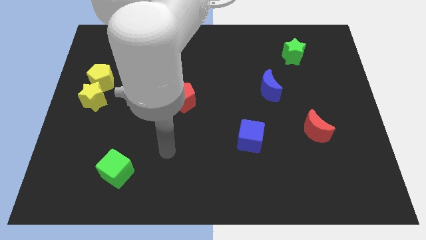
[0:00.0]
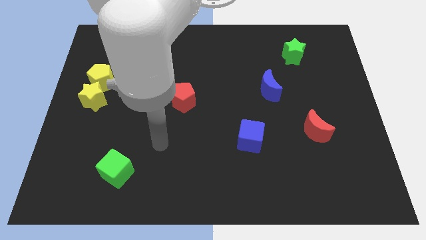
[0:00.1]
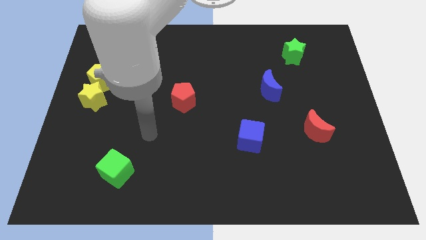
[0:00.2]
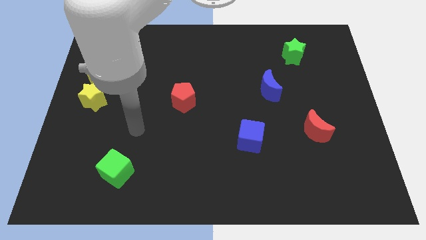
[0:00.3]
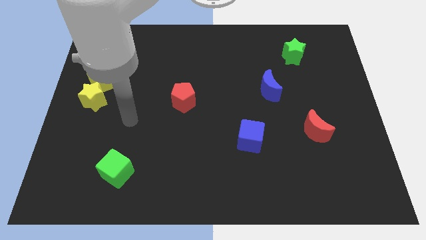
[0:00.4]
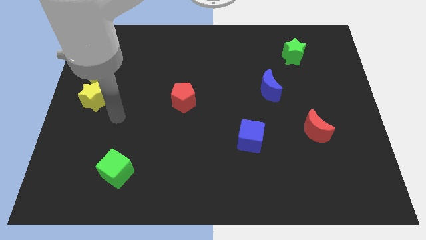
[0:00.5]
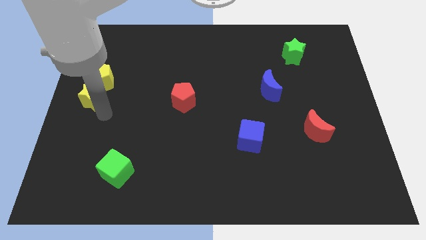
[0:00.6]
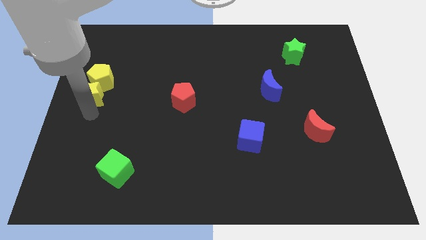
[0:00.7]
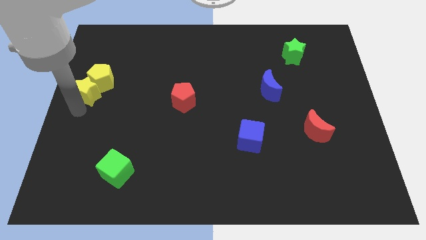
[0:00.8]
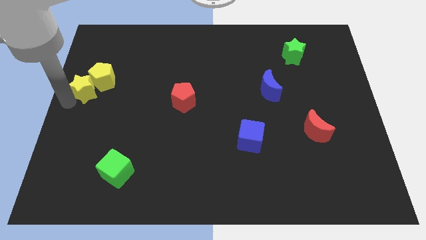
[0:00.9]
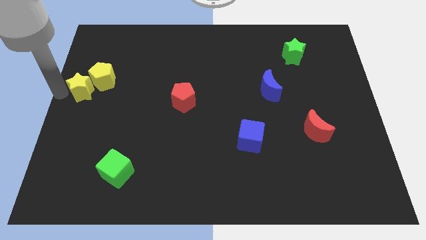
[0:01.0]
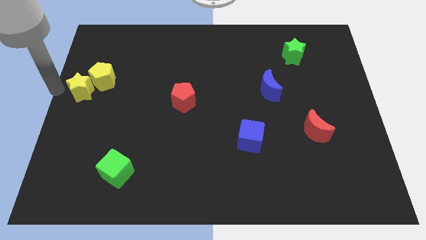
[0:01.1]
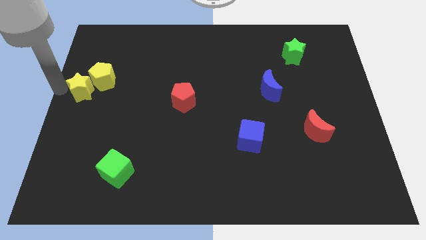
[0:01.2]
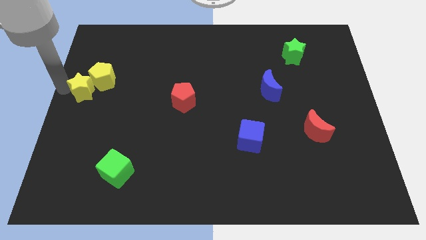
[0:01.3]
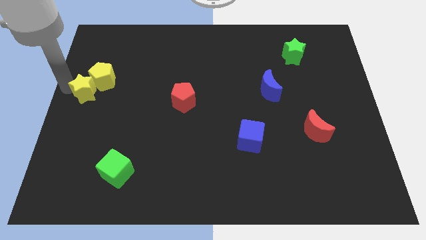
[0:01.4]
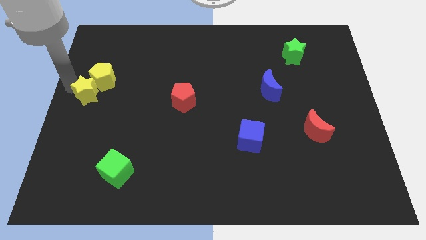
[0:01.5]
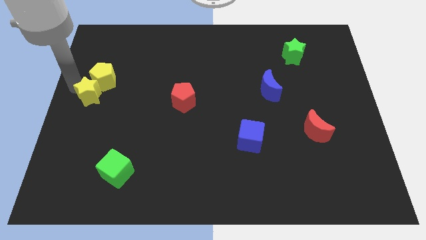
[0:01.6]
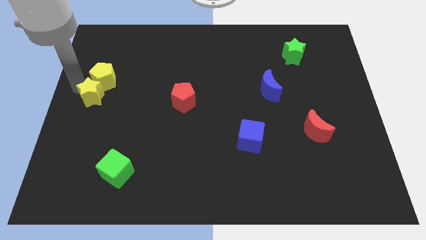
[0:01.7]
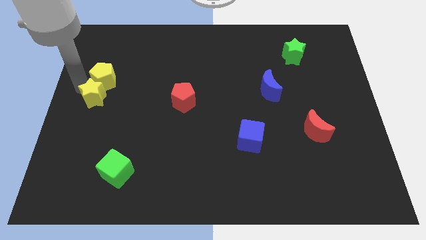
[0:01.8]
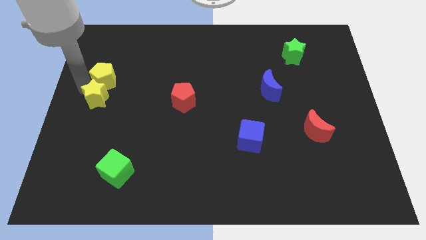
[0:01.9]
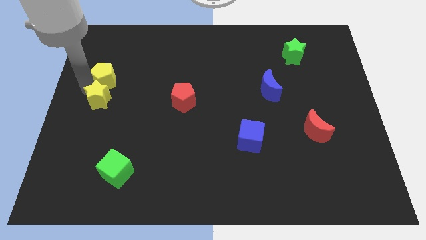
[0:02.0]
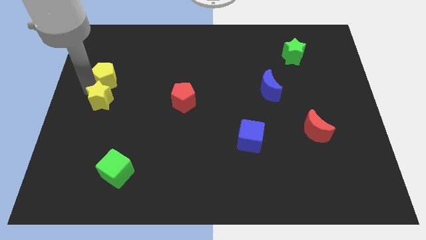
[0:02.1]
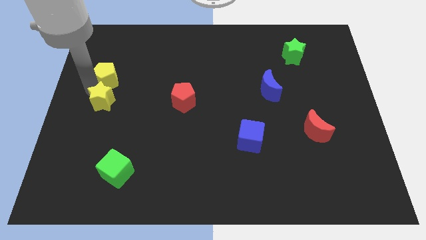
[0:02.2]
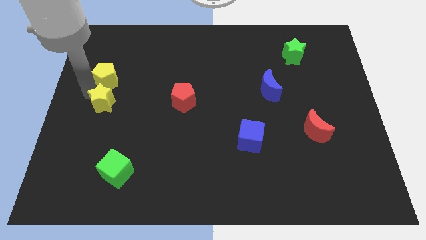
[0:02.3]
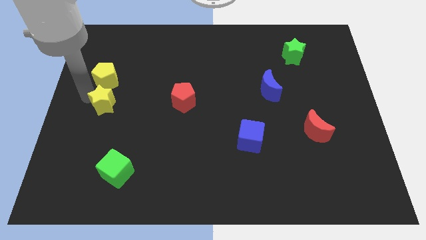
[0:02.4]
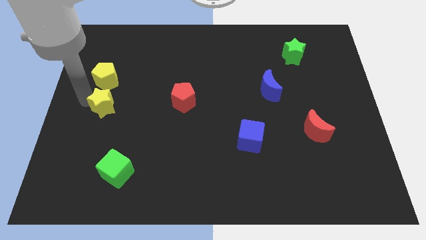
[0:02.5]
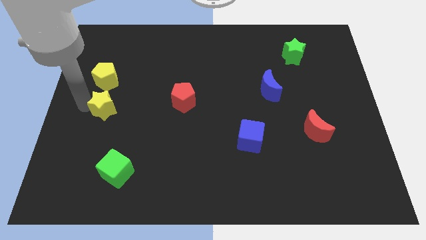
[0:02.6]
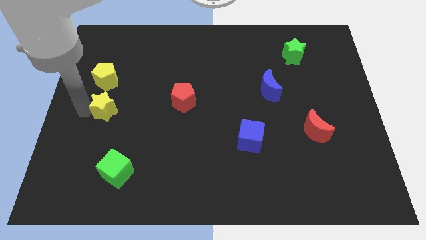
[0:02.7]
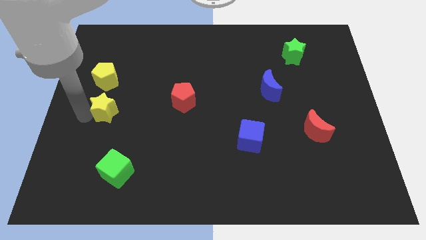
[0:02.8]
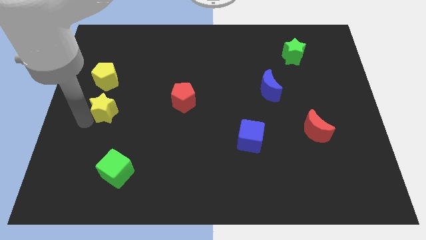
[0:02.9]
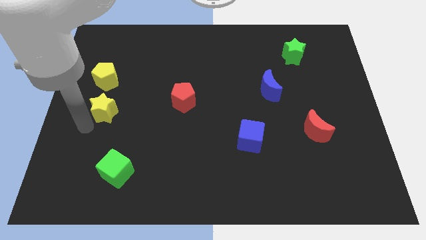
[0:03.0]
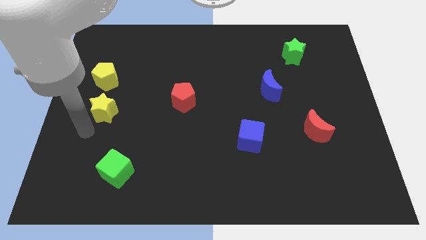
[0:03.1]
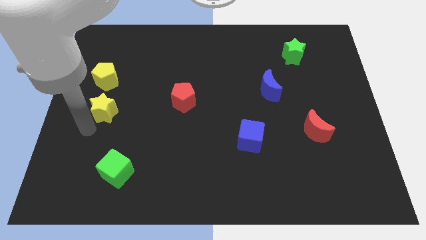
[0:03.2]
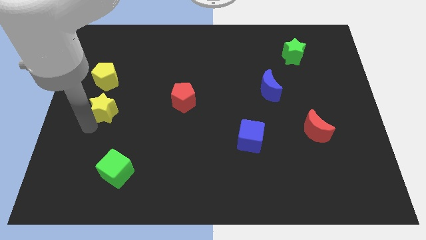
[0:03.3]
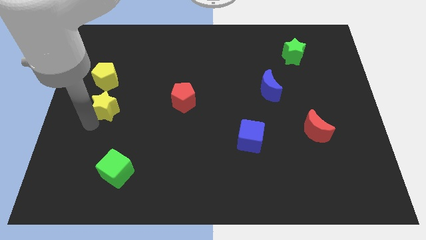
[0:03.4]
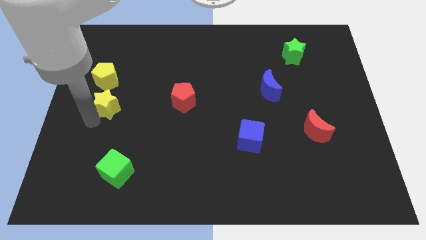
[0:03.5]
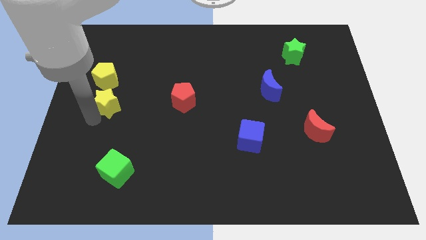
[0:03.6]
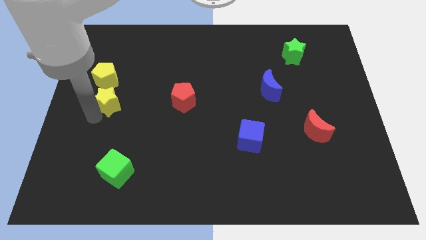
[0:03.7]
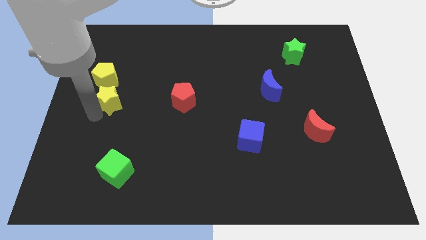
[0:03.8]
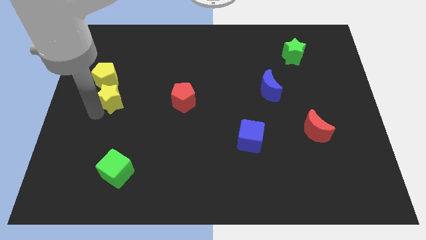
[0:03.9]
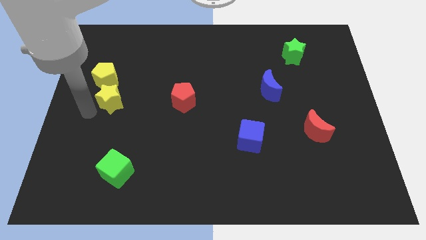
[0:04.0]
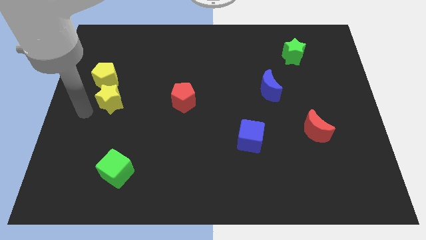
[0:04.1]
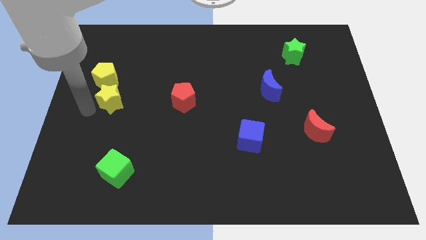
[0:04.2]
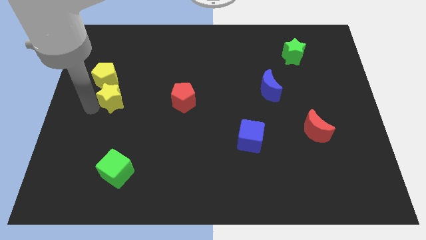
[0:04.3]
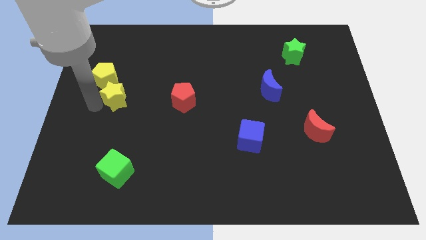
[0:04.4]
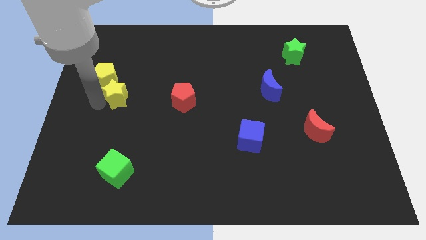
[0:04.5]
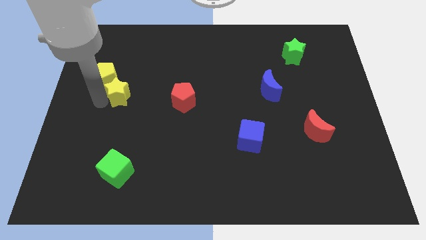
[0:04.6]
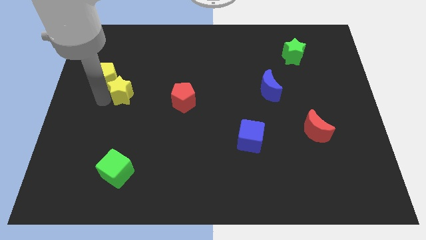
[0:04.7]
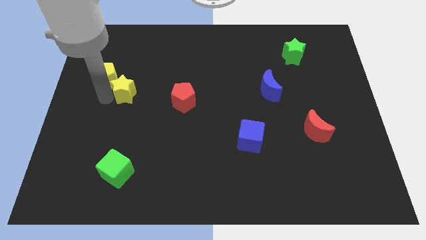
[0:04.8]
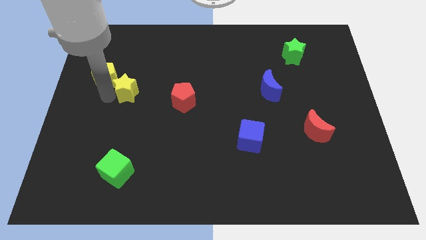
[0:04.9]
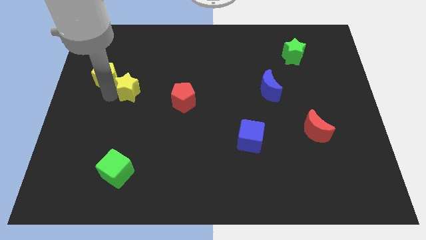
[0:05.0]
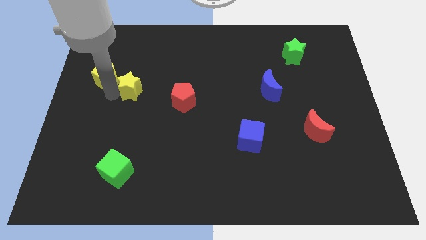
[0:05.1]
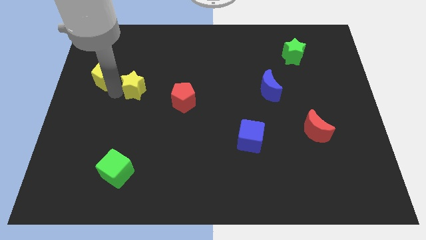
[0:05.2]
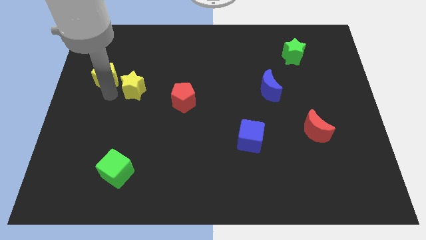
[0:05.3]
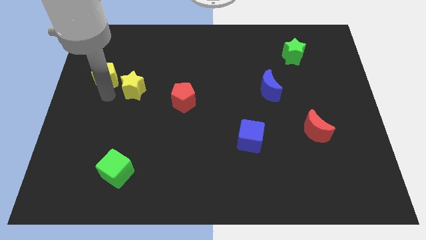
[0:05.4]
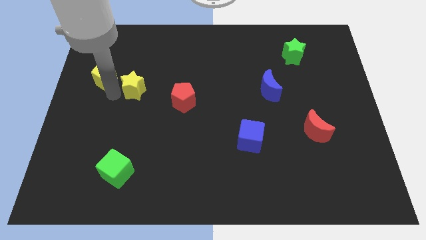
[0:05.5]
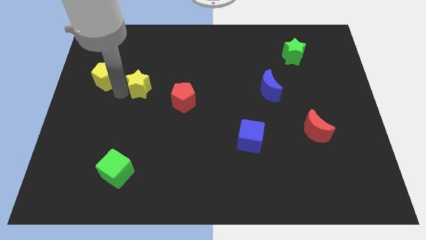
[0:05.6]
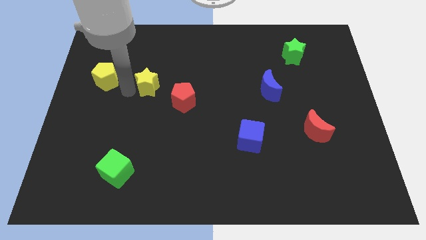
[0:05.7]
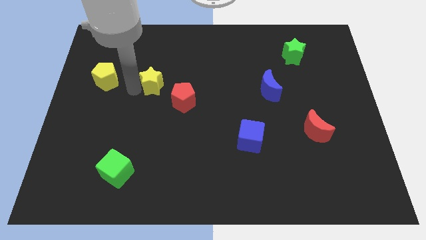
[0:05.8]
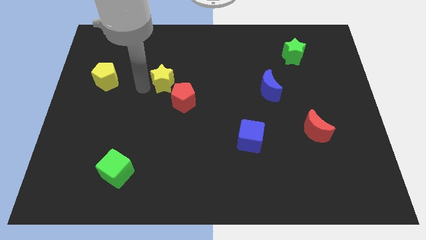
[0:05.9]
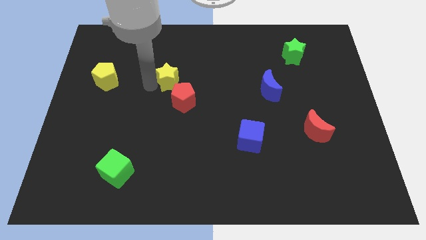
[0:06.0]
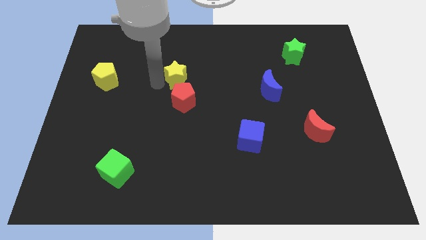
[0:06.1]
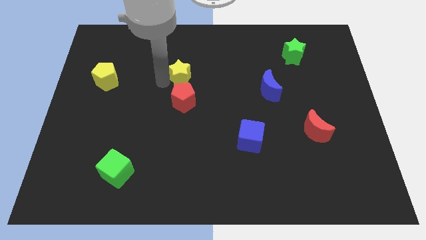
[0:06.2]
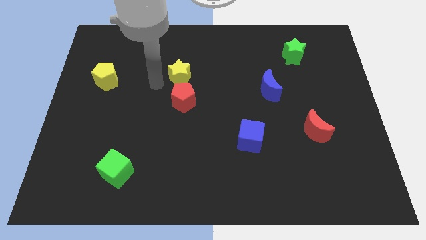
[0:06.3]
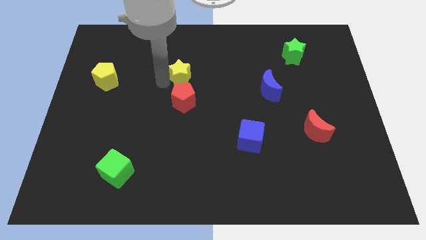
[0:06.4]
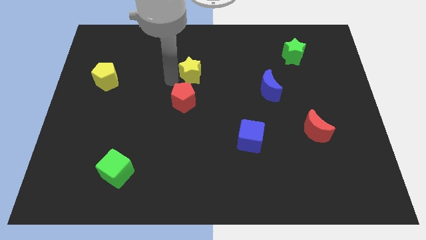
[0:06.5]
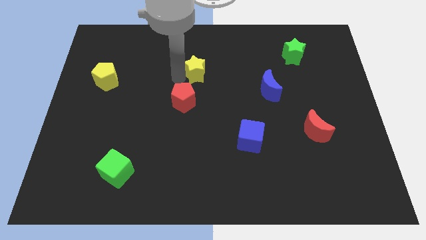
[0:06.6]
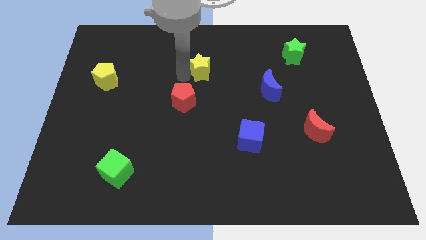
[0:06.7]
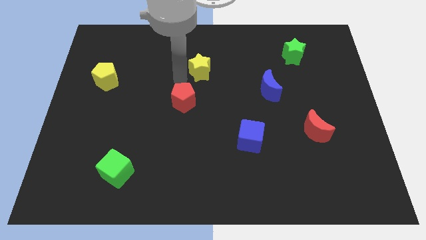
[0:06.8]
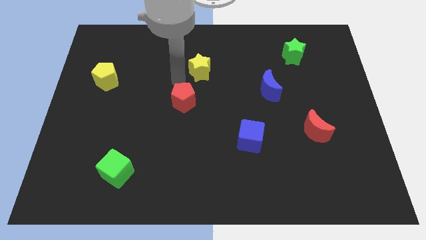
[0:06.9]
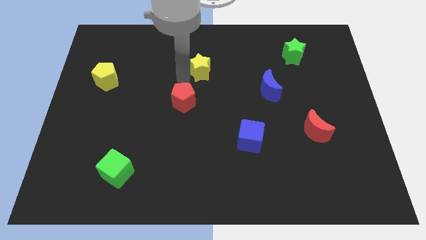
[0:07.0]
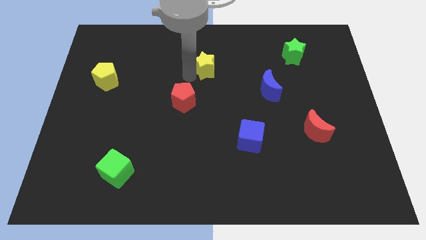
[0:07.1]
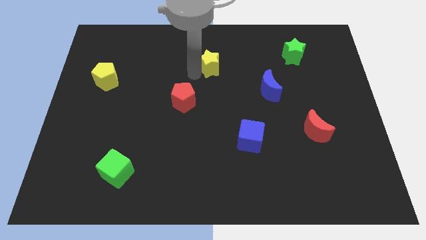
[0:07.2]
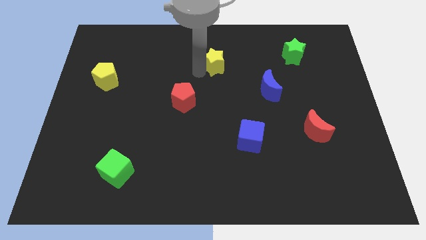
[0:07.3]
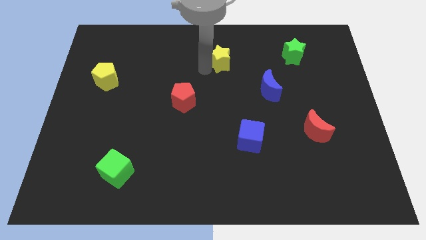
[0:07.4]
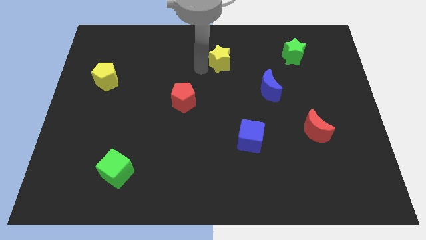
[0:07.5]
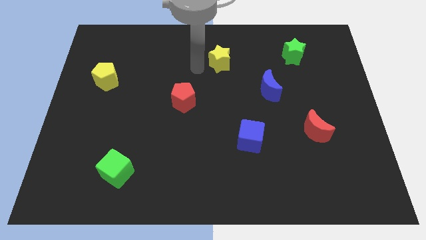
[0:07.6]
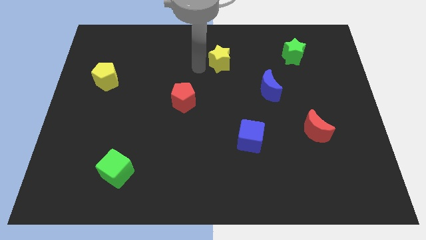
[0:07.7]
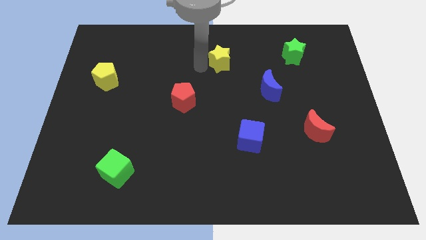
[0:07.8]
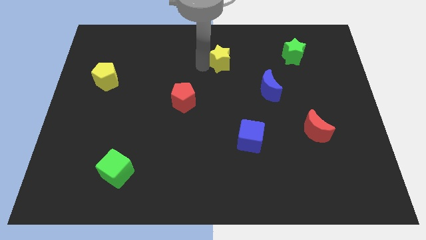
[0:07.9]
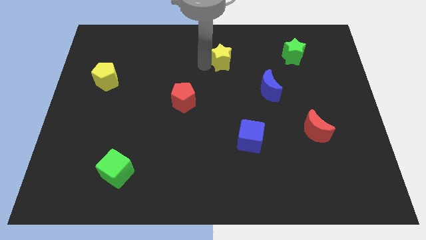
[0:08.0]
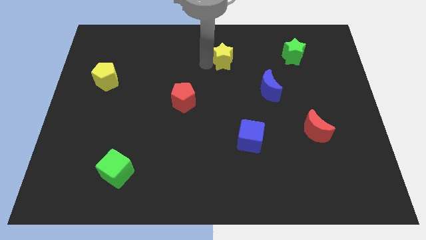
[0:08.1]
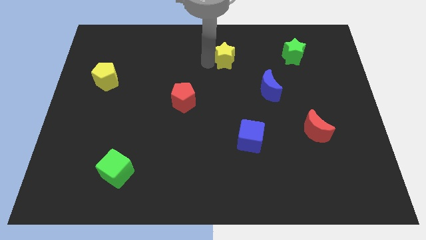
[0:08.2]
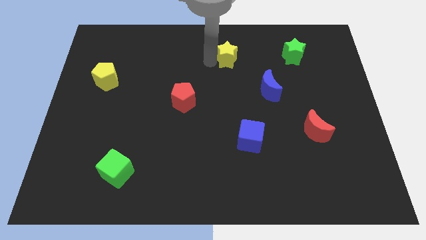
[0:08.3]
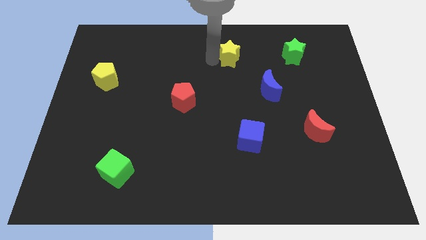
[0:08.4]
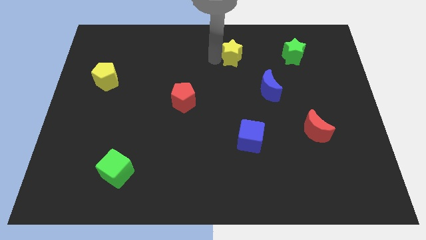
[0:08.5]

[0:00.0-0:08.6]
move the yellow star left of the green star
